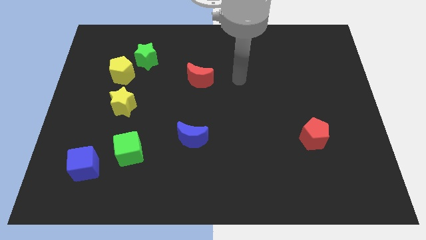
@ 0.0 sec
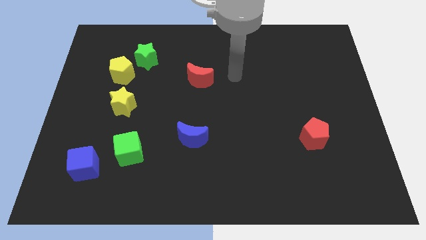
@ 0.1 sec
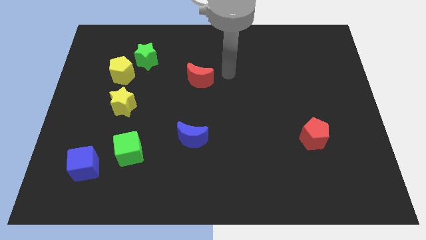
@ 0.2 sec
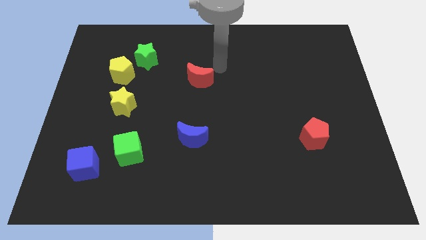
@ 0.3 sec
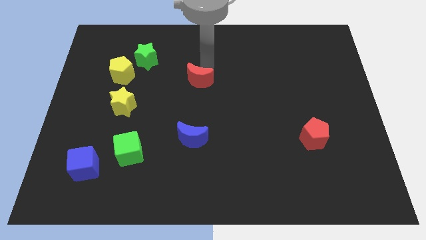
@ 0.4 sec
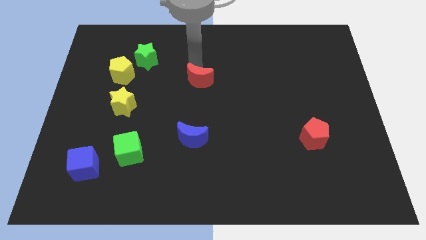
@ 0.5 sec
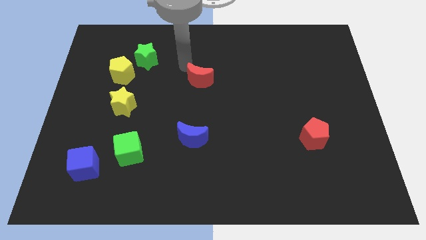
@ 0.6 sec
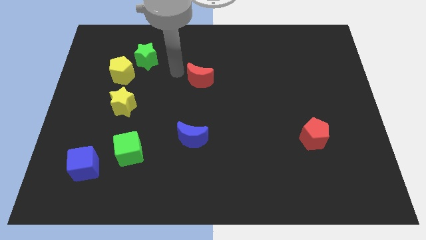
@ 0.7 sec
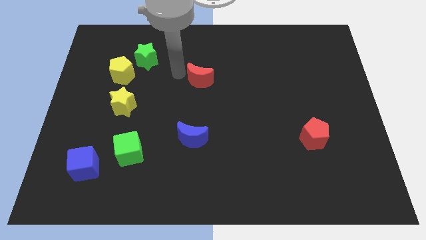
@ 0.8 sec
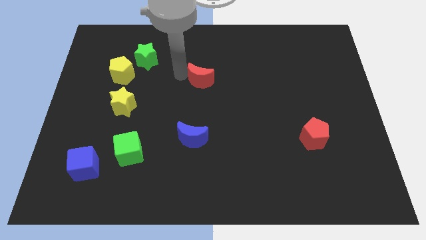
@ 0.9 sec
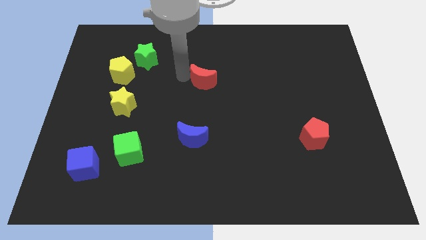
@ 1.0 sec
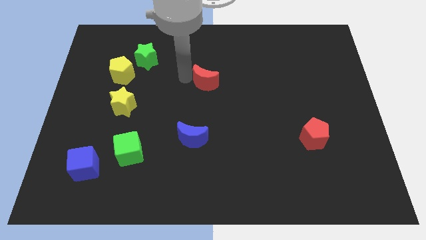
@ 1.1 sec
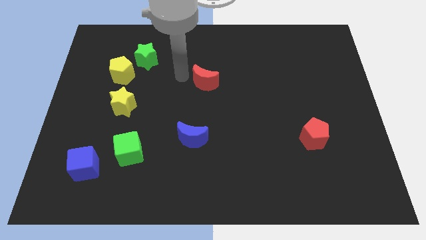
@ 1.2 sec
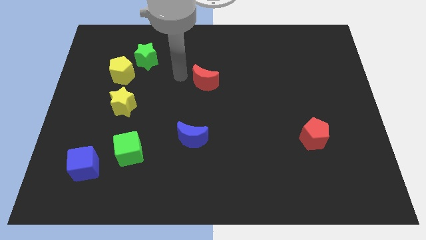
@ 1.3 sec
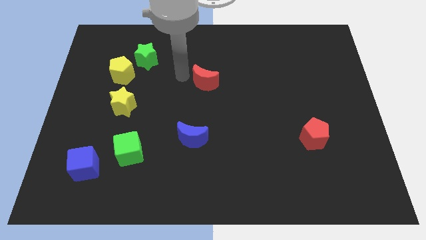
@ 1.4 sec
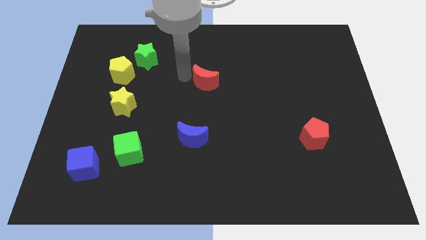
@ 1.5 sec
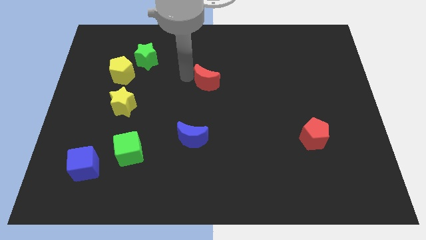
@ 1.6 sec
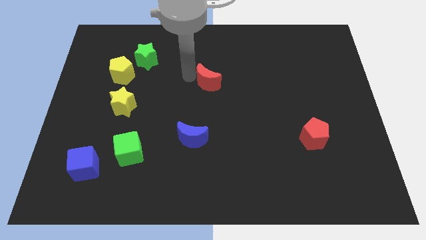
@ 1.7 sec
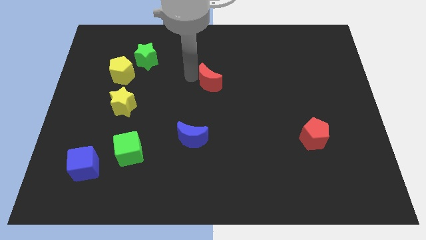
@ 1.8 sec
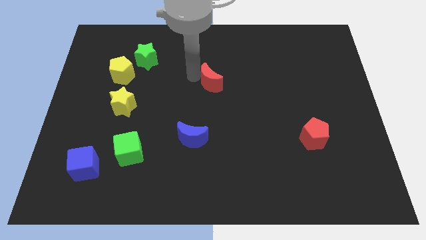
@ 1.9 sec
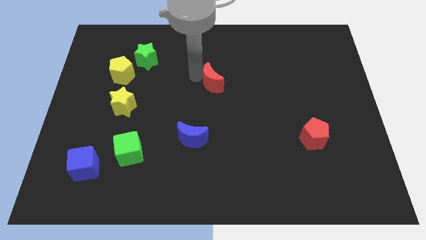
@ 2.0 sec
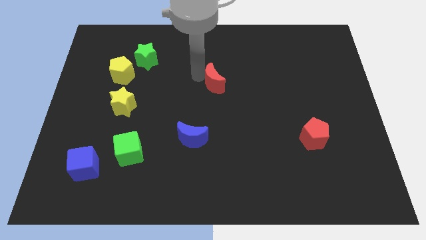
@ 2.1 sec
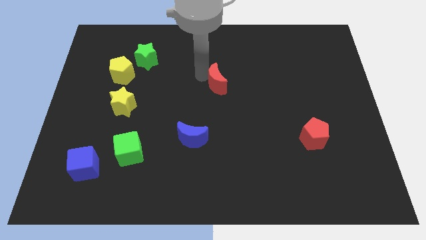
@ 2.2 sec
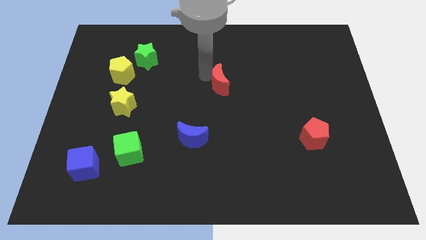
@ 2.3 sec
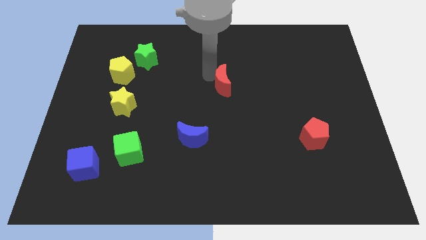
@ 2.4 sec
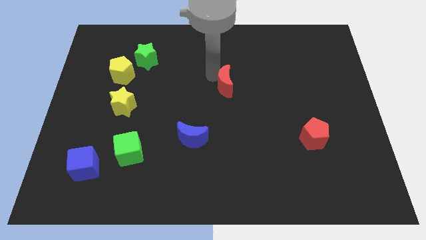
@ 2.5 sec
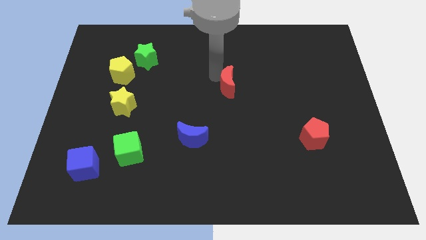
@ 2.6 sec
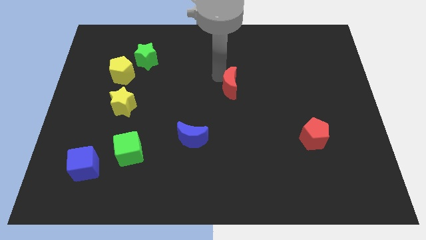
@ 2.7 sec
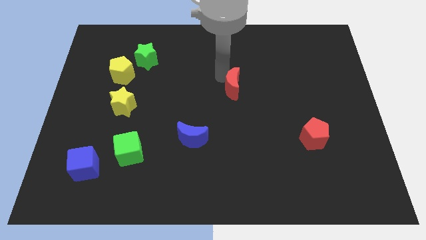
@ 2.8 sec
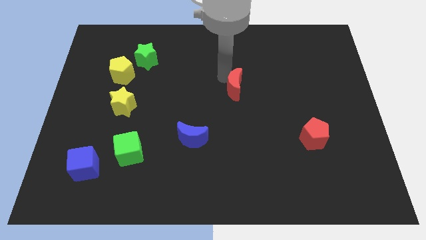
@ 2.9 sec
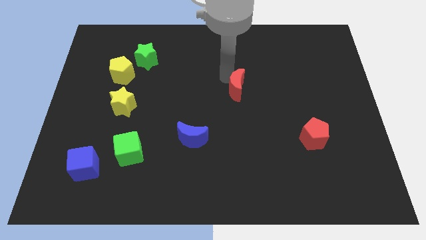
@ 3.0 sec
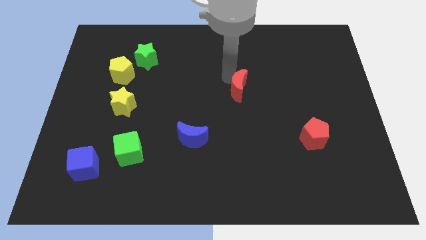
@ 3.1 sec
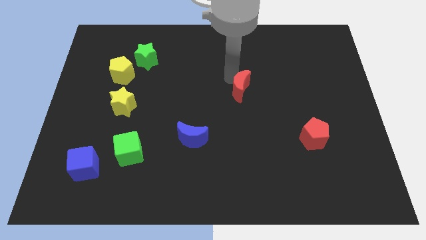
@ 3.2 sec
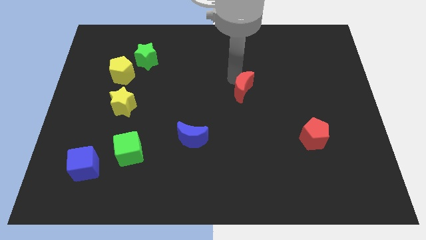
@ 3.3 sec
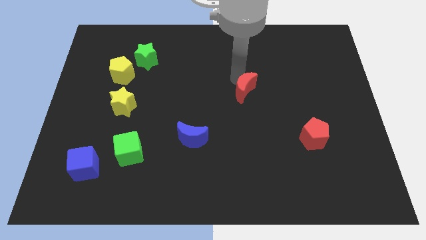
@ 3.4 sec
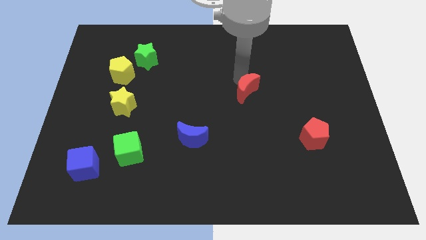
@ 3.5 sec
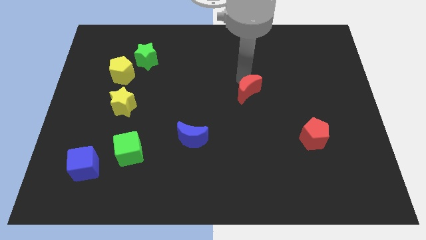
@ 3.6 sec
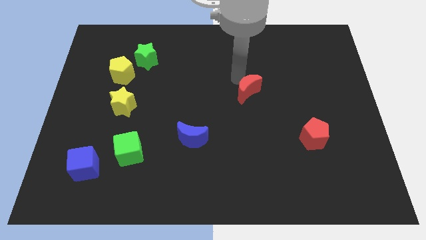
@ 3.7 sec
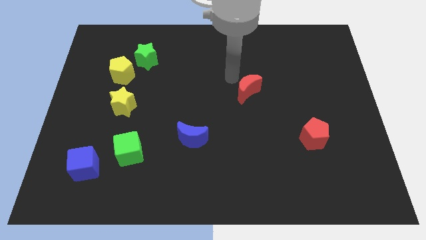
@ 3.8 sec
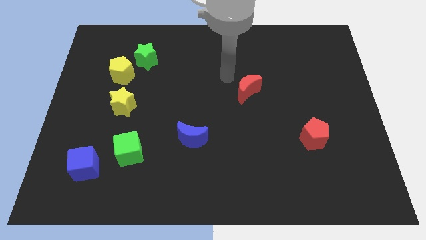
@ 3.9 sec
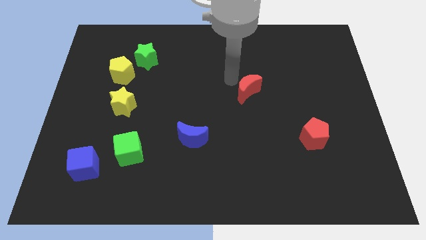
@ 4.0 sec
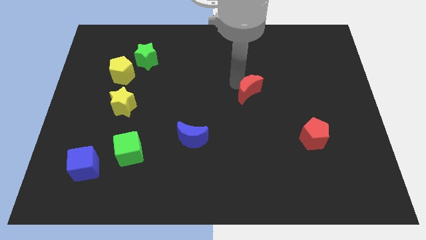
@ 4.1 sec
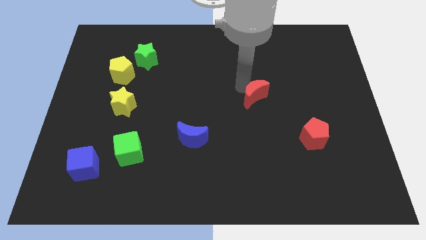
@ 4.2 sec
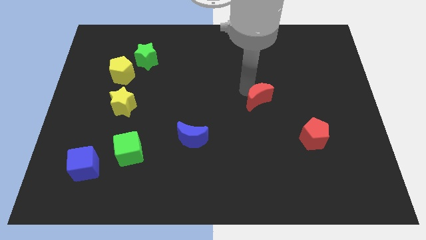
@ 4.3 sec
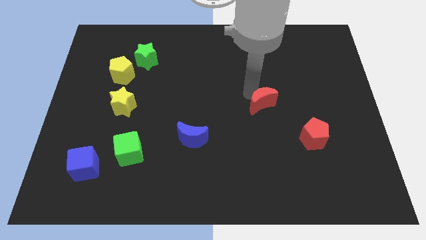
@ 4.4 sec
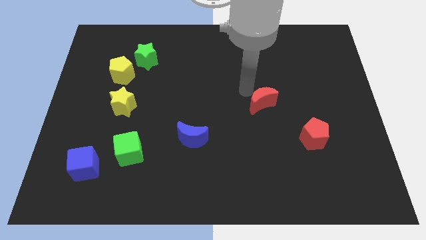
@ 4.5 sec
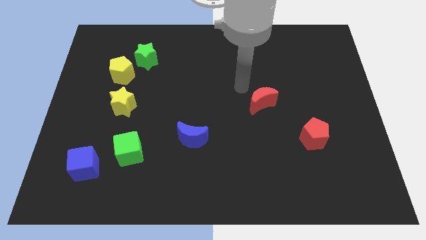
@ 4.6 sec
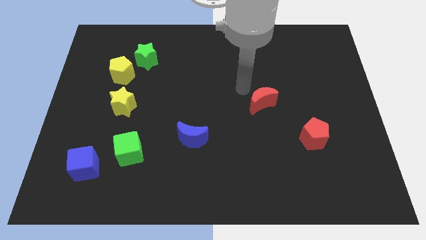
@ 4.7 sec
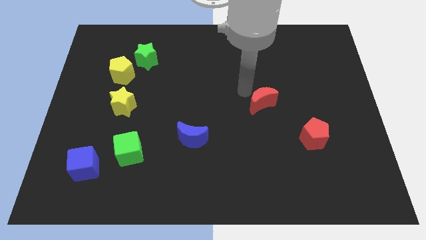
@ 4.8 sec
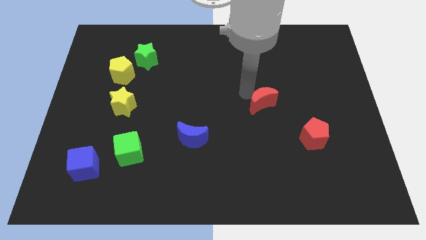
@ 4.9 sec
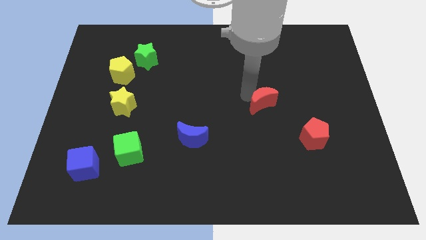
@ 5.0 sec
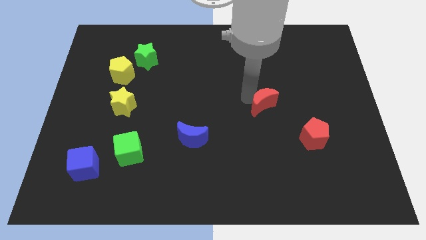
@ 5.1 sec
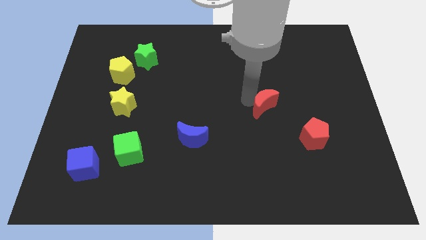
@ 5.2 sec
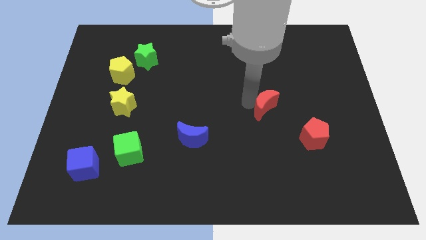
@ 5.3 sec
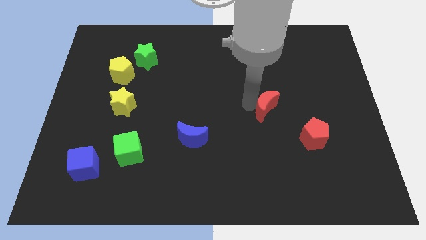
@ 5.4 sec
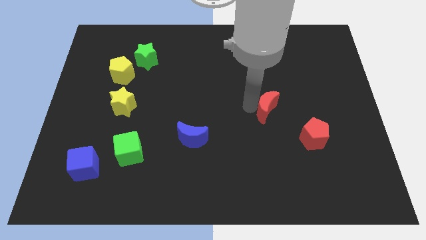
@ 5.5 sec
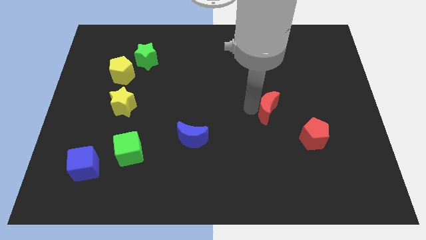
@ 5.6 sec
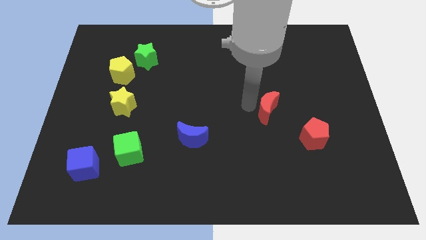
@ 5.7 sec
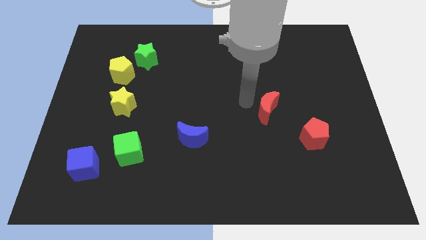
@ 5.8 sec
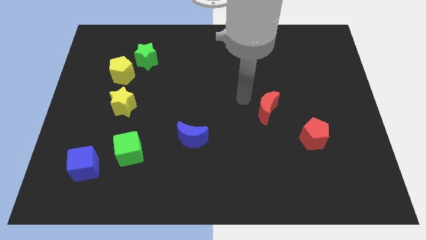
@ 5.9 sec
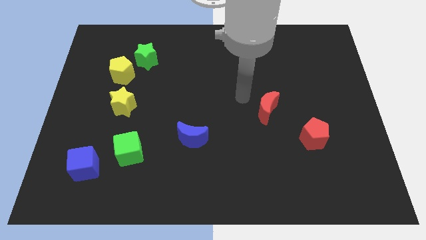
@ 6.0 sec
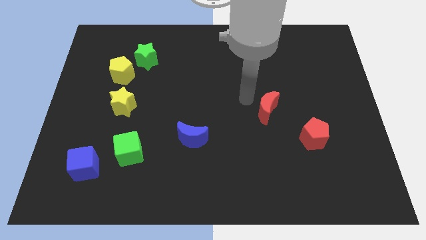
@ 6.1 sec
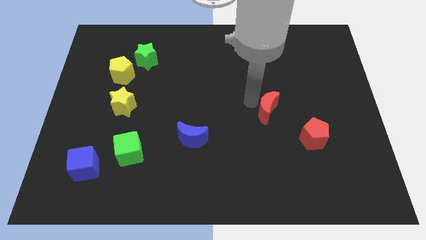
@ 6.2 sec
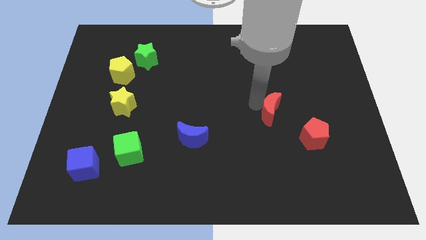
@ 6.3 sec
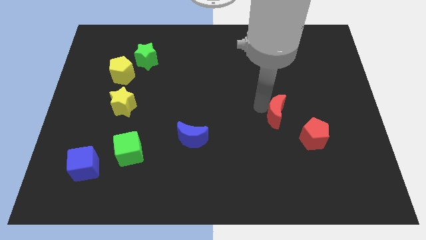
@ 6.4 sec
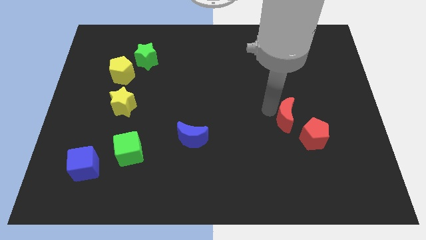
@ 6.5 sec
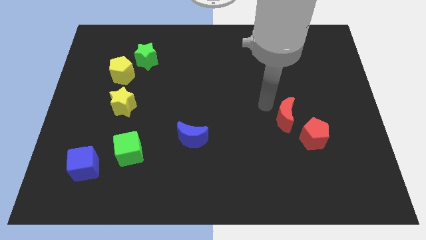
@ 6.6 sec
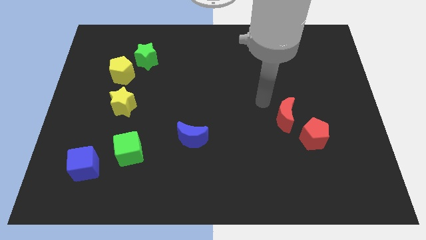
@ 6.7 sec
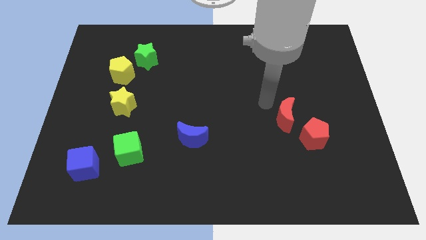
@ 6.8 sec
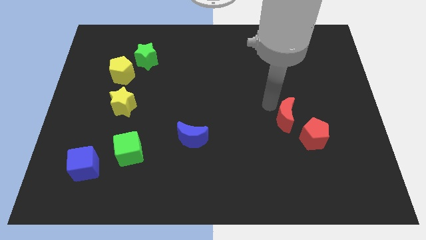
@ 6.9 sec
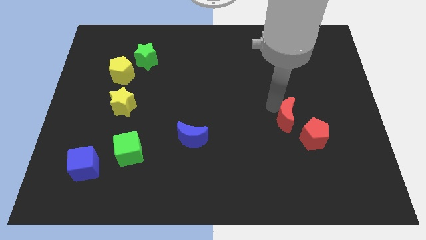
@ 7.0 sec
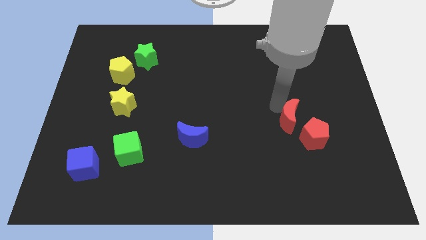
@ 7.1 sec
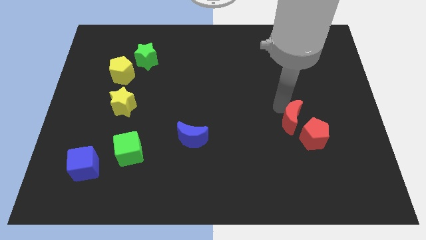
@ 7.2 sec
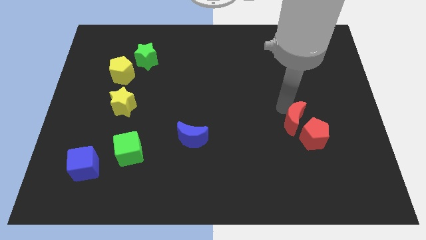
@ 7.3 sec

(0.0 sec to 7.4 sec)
push the red moon next to the red pentagon
